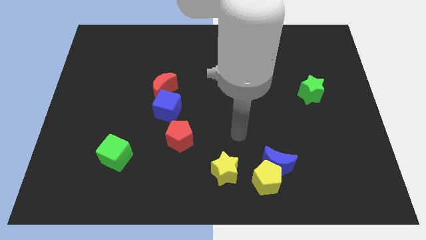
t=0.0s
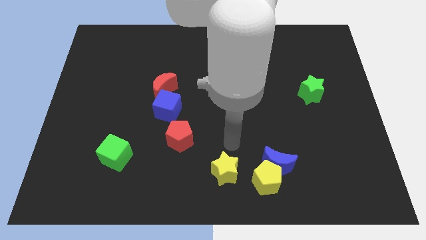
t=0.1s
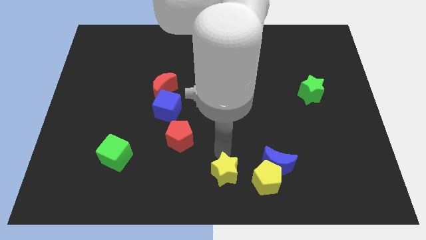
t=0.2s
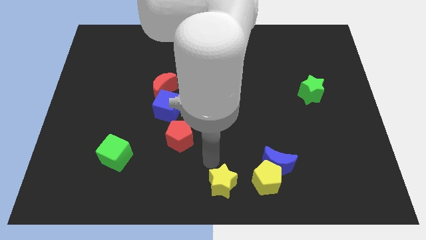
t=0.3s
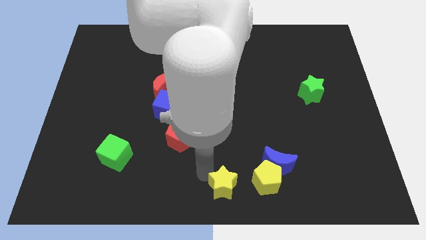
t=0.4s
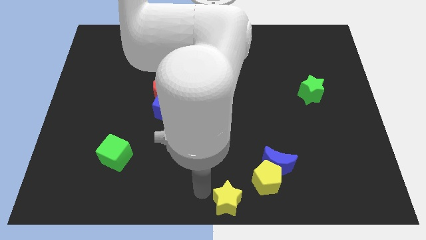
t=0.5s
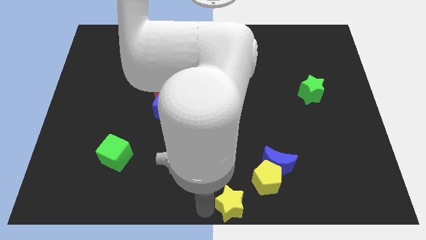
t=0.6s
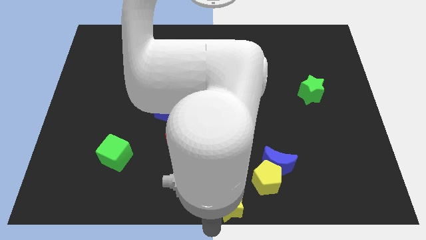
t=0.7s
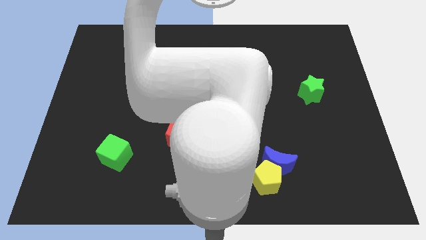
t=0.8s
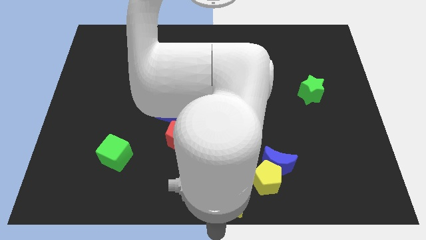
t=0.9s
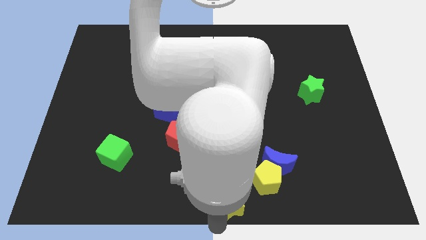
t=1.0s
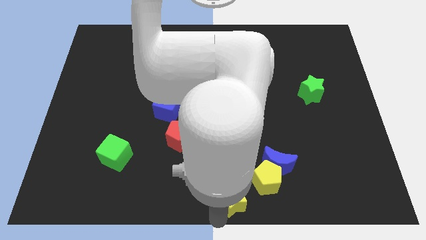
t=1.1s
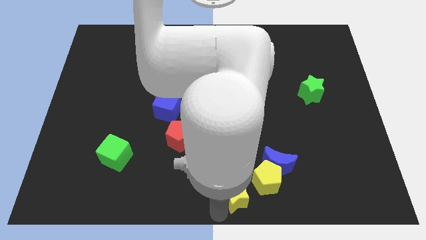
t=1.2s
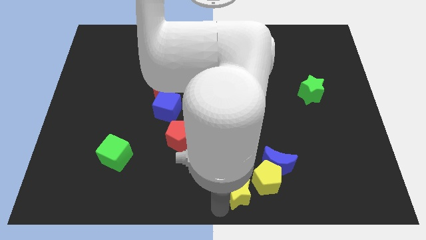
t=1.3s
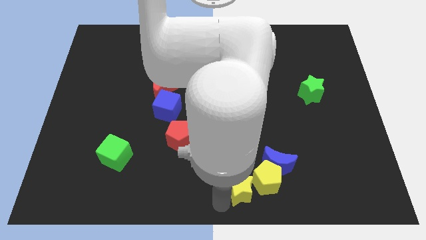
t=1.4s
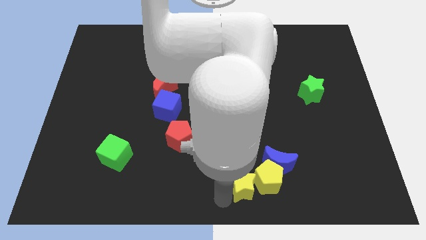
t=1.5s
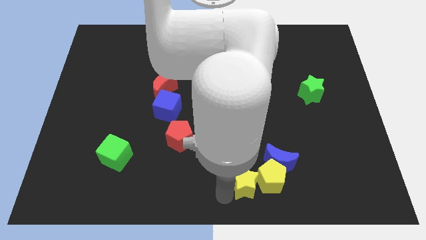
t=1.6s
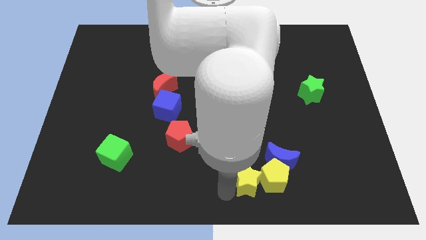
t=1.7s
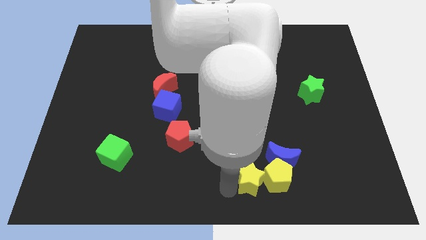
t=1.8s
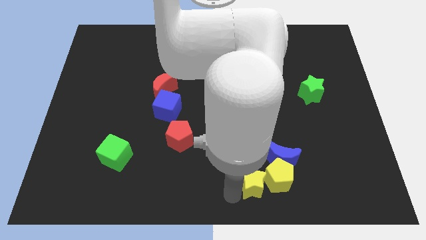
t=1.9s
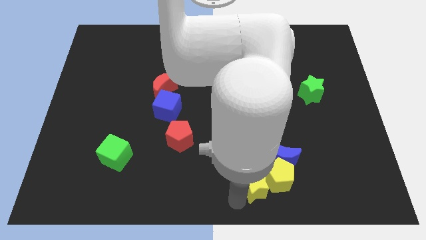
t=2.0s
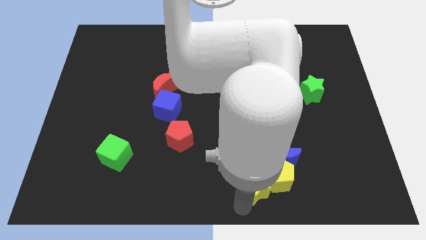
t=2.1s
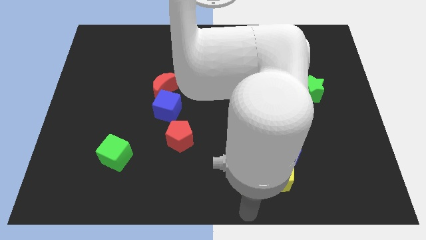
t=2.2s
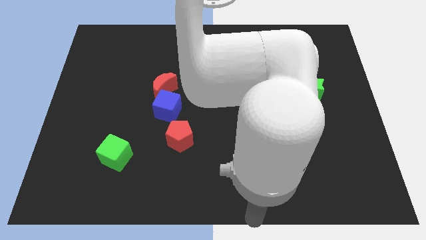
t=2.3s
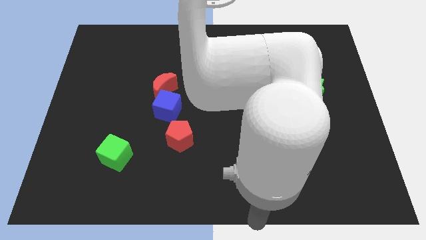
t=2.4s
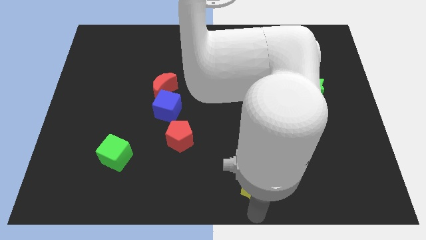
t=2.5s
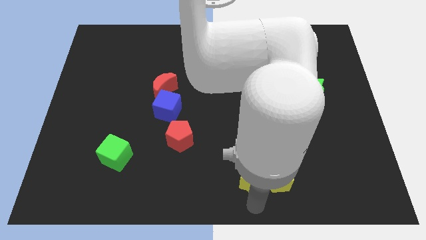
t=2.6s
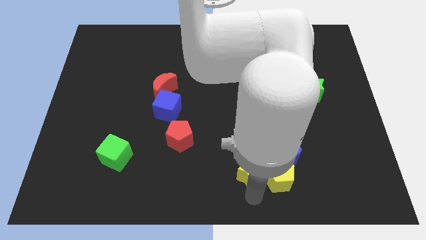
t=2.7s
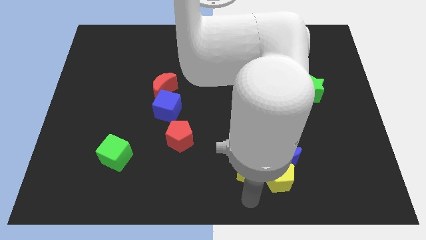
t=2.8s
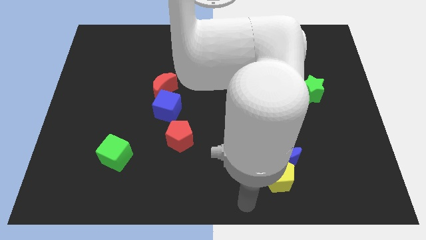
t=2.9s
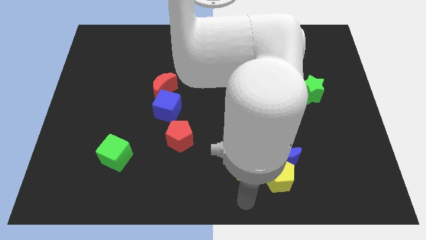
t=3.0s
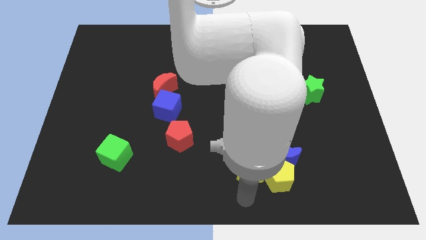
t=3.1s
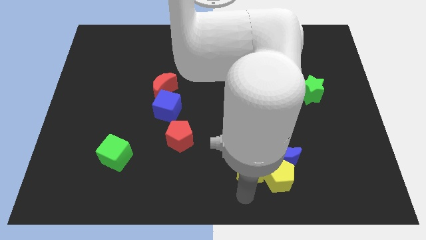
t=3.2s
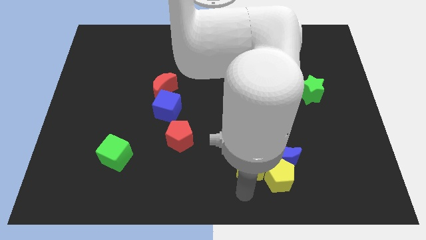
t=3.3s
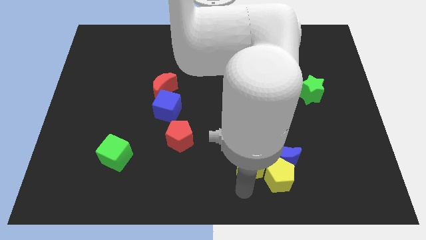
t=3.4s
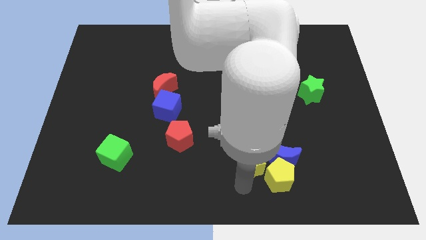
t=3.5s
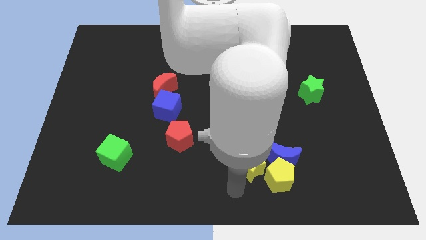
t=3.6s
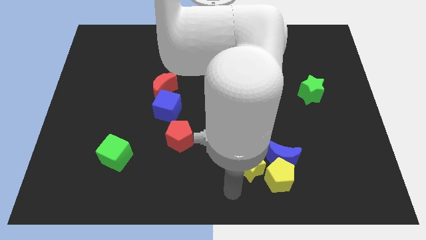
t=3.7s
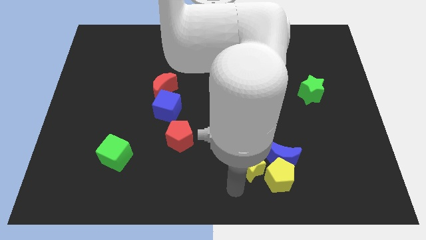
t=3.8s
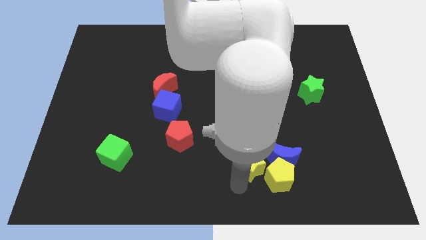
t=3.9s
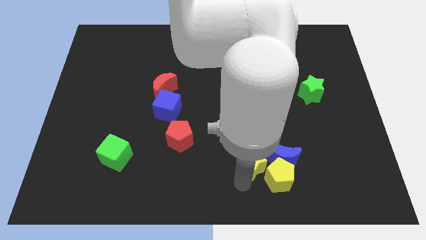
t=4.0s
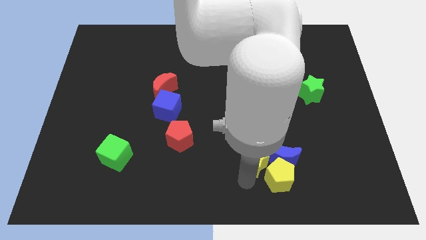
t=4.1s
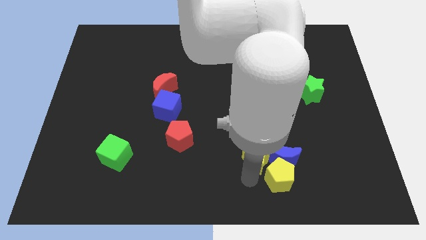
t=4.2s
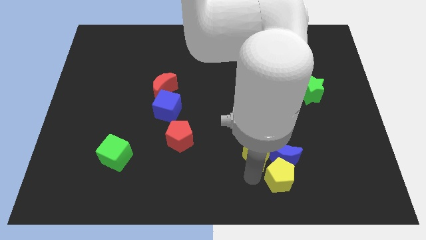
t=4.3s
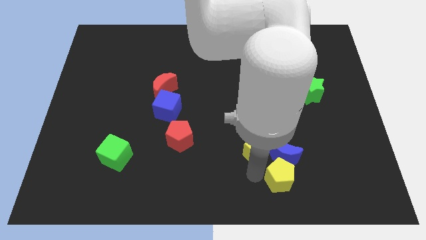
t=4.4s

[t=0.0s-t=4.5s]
slide the yellow star up and then to the right a bit

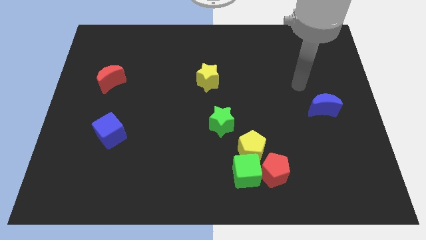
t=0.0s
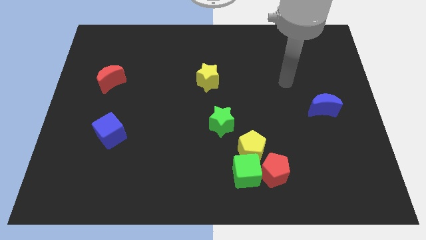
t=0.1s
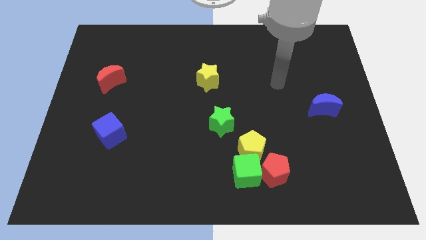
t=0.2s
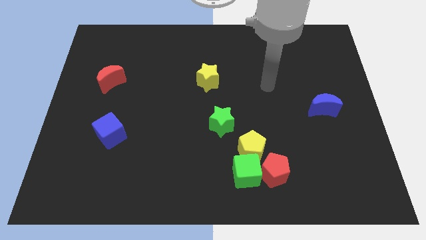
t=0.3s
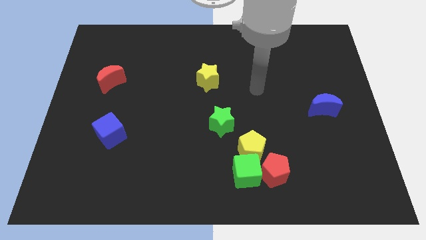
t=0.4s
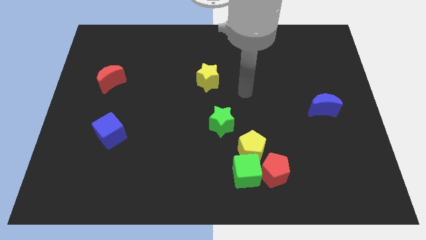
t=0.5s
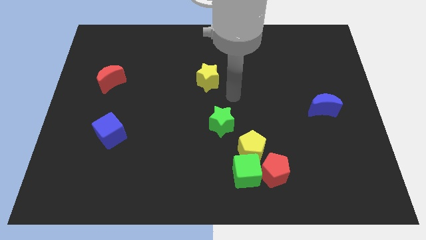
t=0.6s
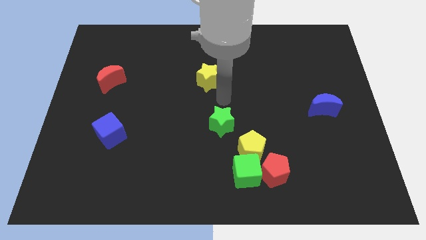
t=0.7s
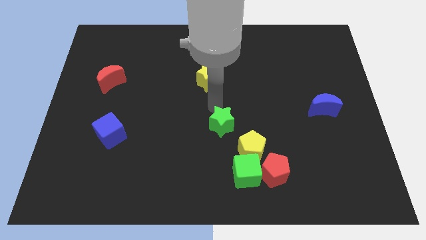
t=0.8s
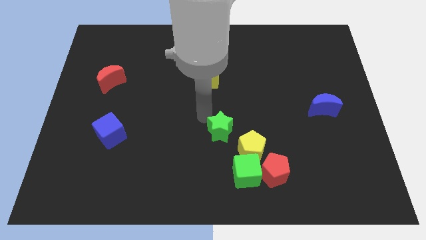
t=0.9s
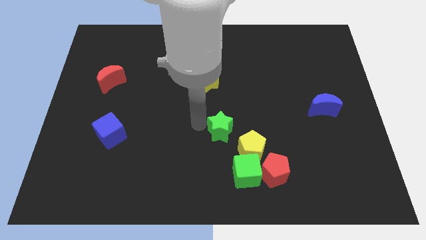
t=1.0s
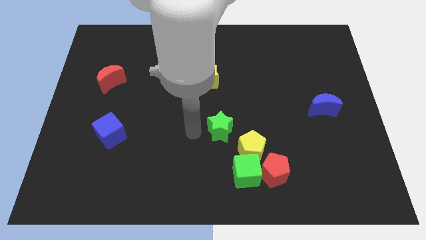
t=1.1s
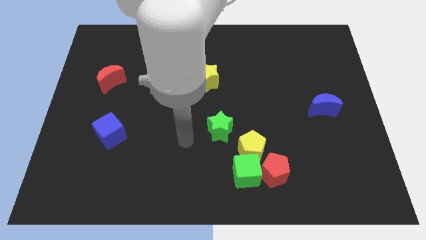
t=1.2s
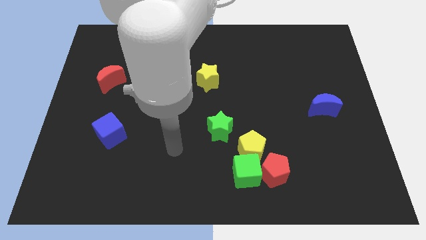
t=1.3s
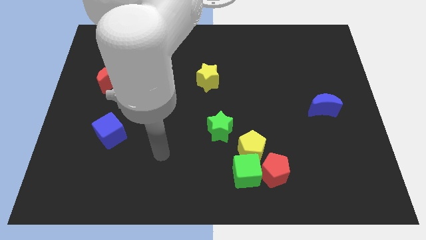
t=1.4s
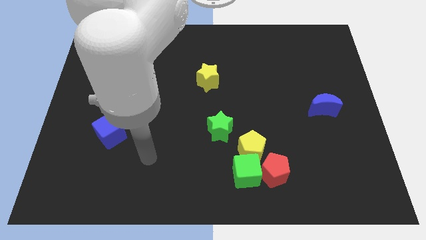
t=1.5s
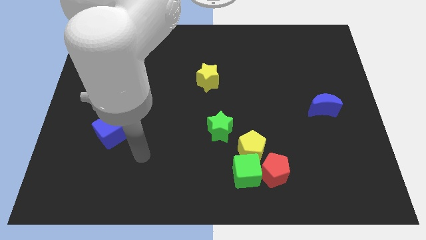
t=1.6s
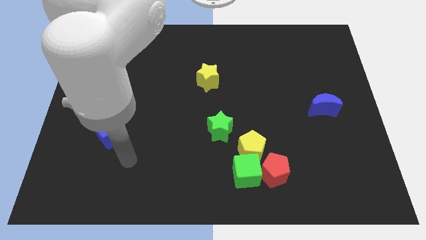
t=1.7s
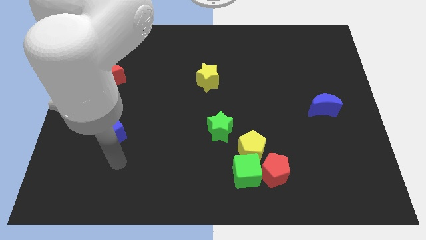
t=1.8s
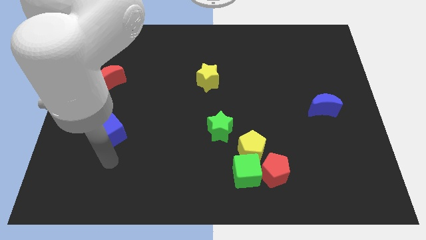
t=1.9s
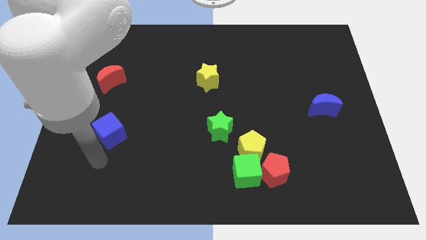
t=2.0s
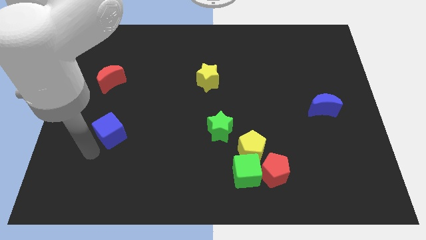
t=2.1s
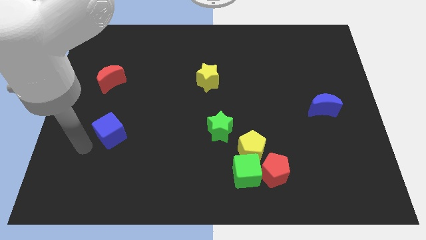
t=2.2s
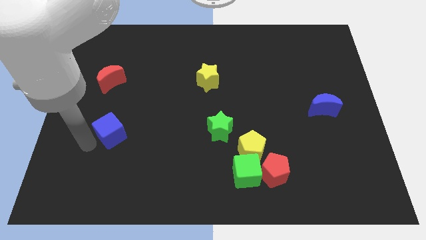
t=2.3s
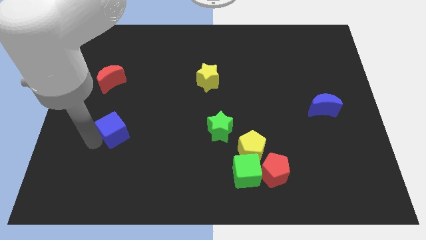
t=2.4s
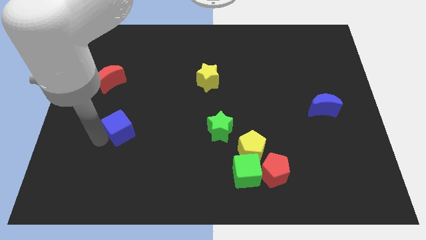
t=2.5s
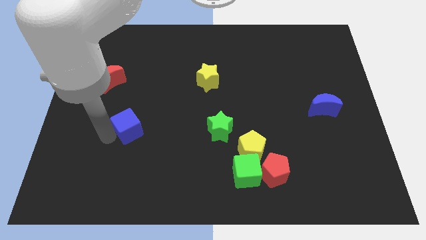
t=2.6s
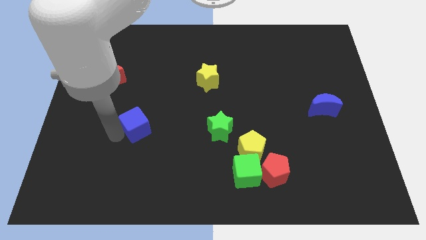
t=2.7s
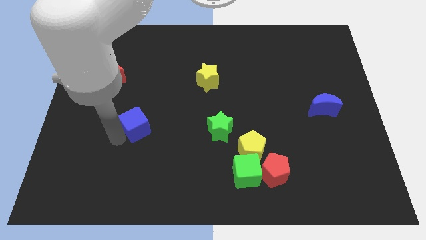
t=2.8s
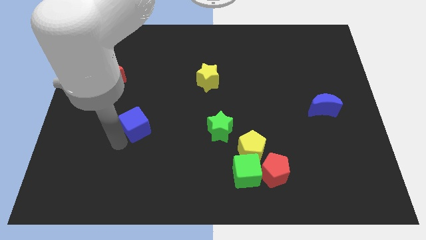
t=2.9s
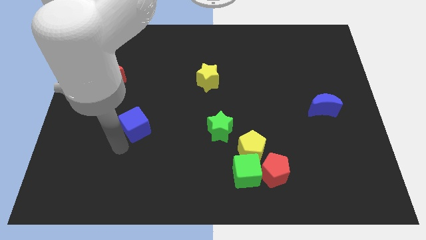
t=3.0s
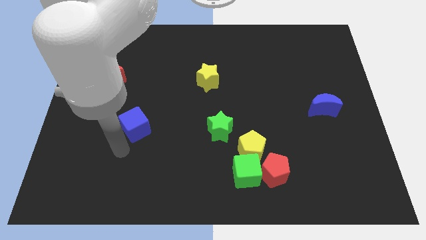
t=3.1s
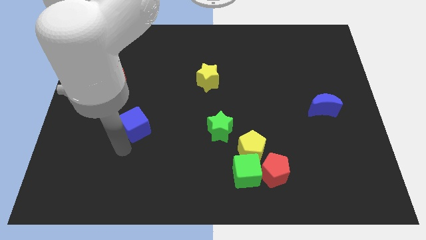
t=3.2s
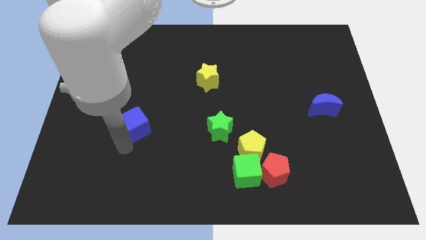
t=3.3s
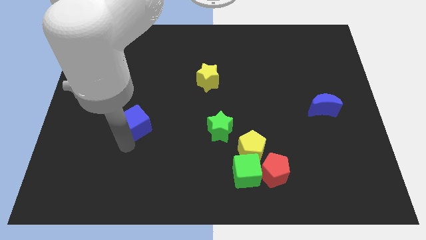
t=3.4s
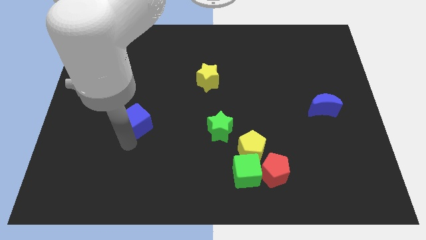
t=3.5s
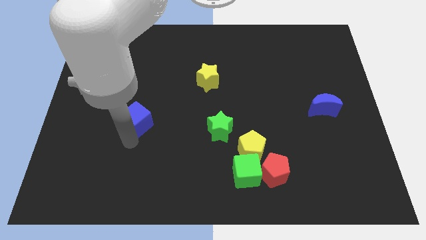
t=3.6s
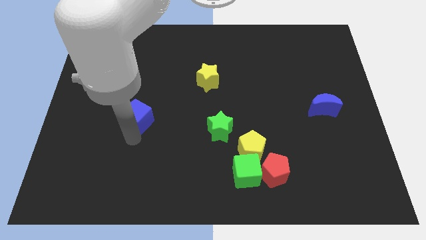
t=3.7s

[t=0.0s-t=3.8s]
slightly slide the blue cube up and then right
